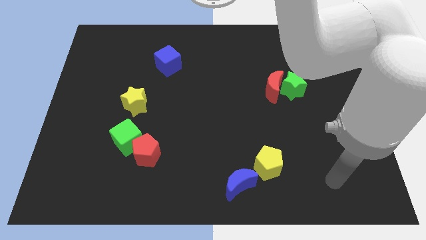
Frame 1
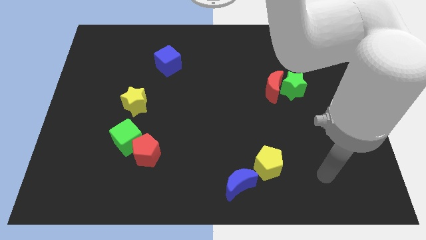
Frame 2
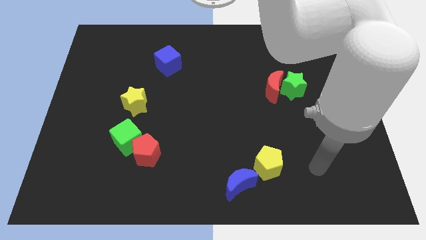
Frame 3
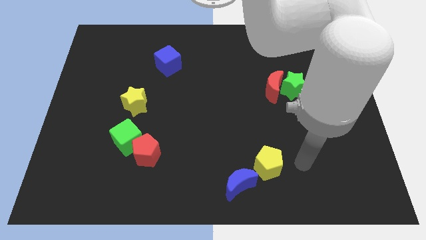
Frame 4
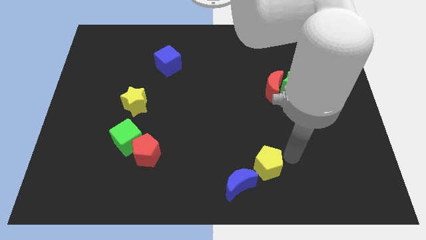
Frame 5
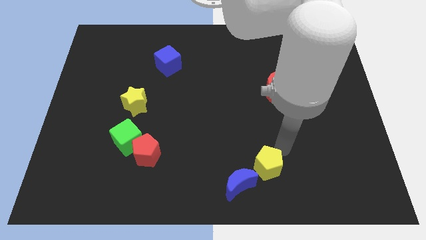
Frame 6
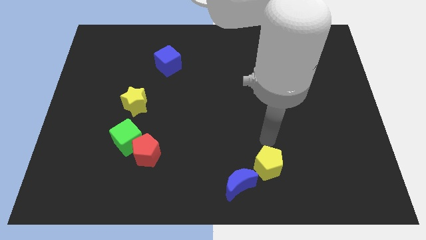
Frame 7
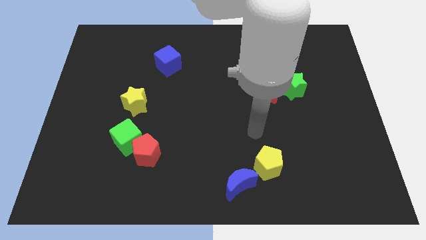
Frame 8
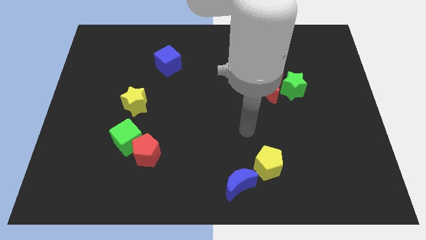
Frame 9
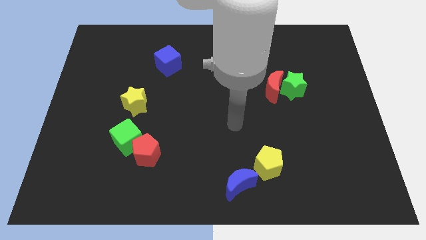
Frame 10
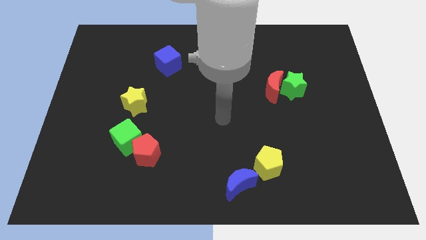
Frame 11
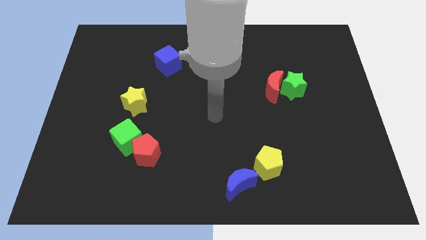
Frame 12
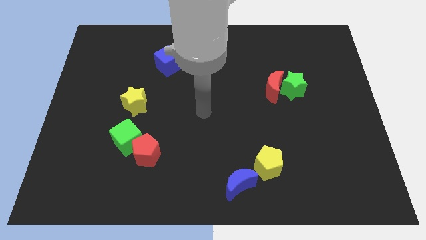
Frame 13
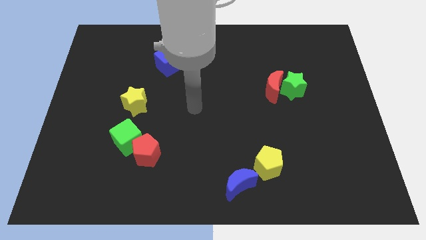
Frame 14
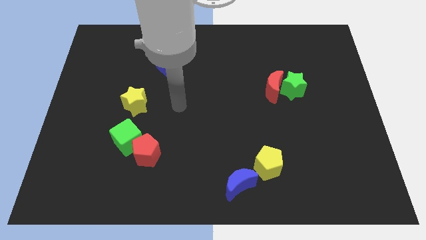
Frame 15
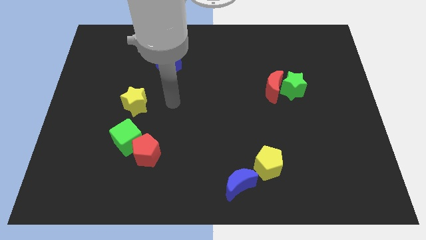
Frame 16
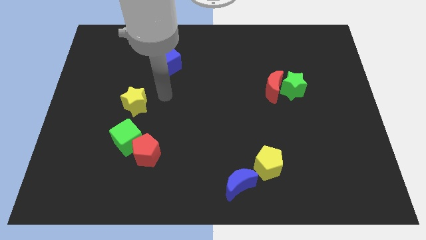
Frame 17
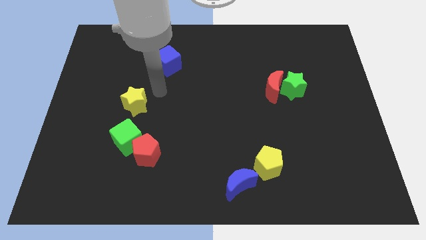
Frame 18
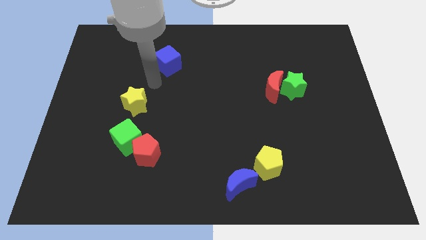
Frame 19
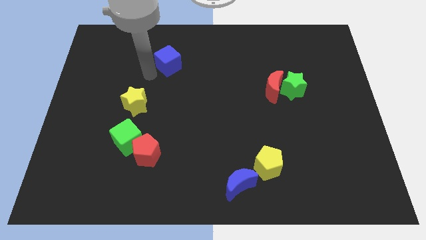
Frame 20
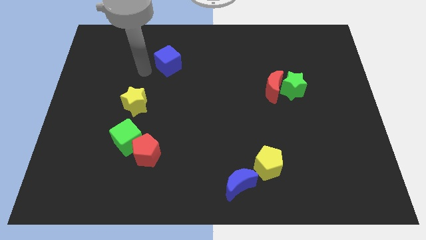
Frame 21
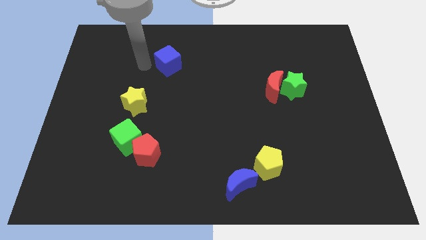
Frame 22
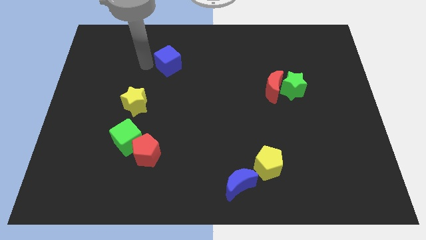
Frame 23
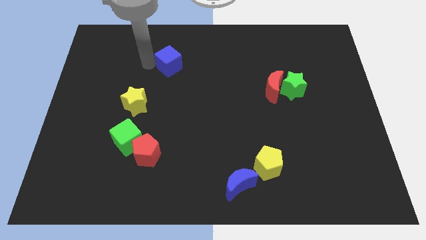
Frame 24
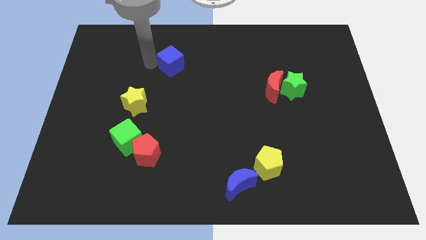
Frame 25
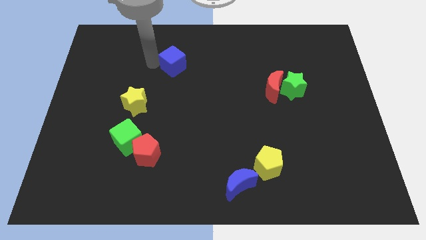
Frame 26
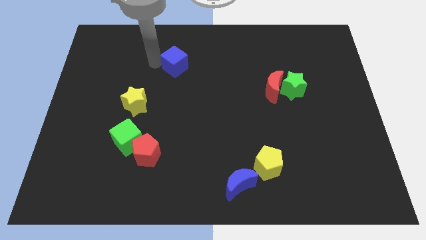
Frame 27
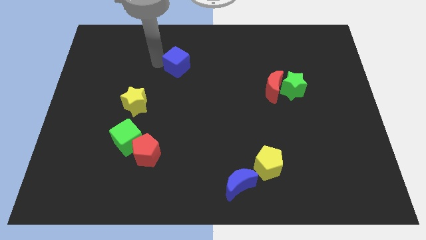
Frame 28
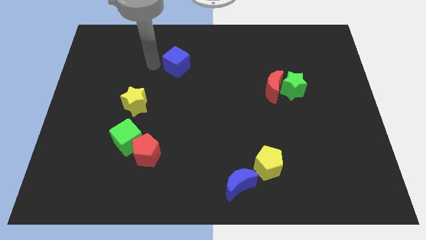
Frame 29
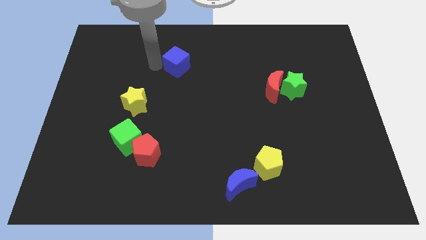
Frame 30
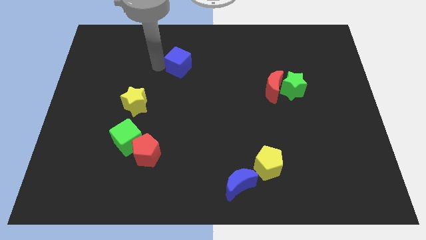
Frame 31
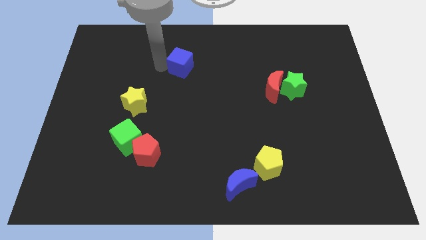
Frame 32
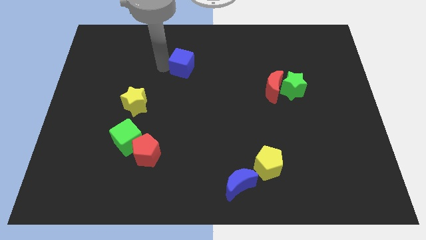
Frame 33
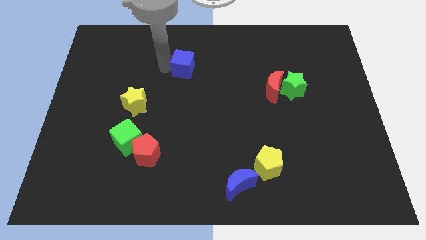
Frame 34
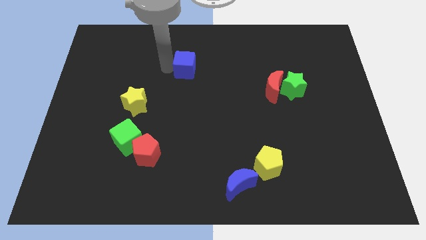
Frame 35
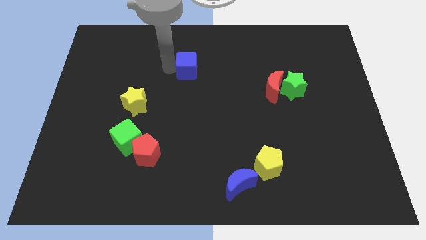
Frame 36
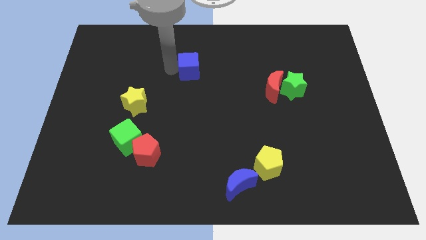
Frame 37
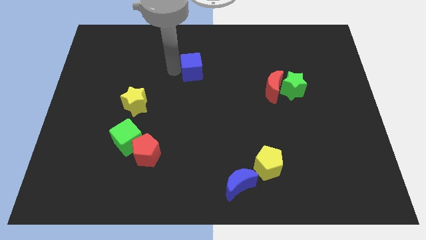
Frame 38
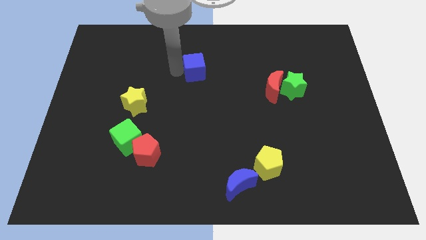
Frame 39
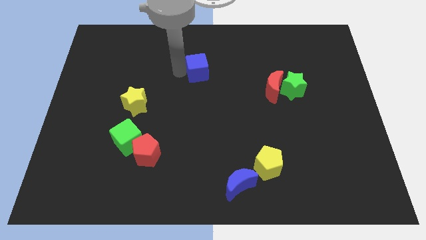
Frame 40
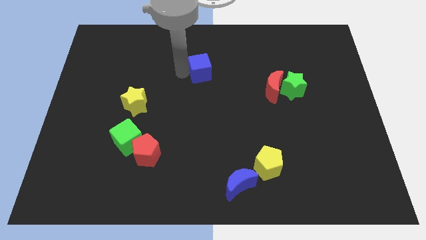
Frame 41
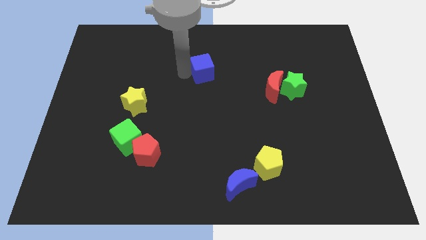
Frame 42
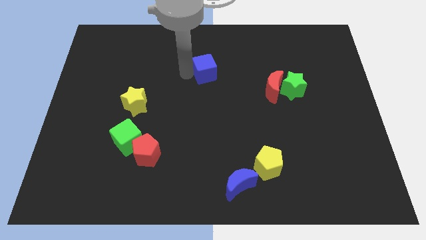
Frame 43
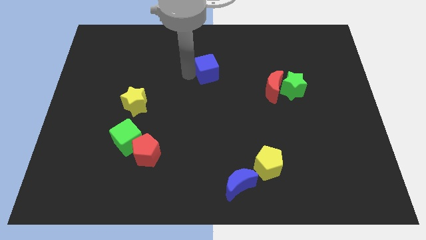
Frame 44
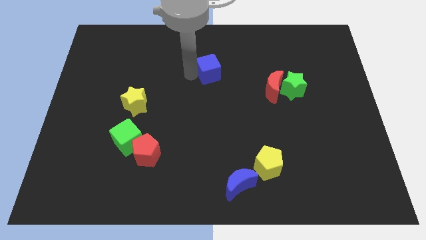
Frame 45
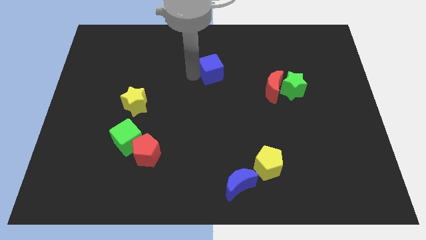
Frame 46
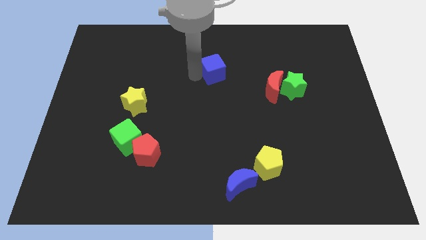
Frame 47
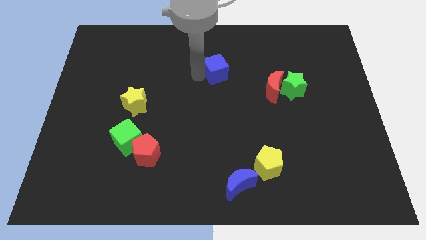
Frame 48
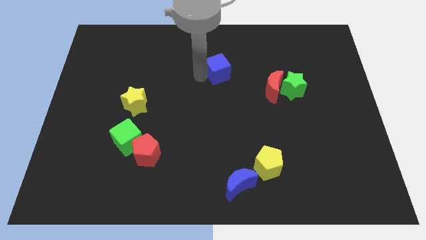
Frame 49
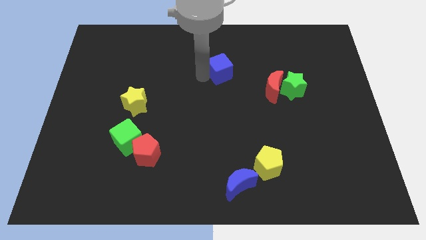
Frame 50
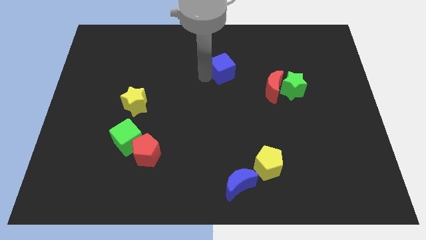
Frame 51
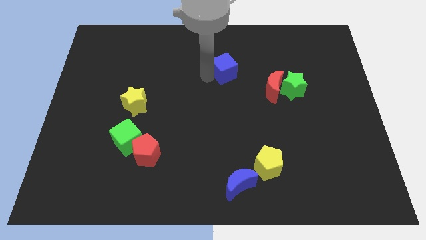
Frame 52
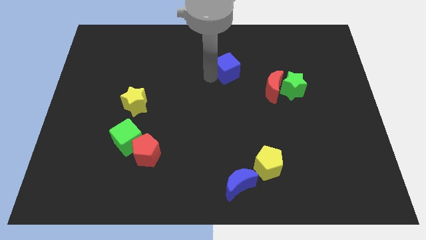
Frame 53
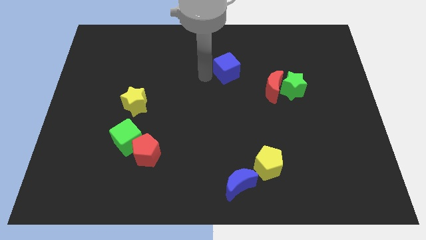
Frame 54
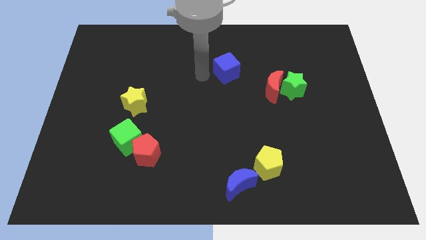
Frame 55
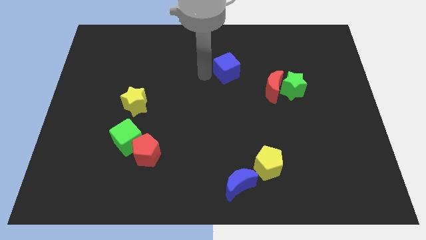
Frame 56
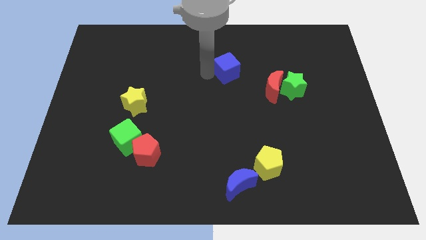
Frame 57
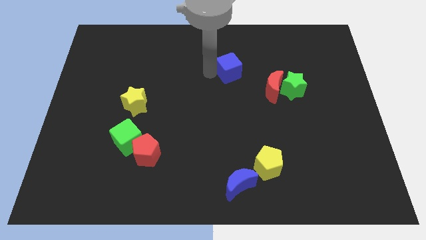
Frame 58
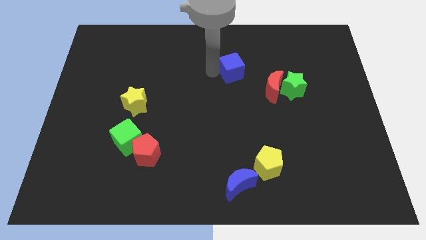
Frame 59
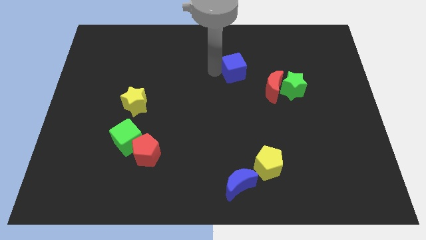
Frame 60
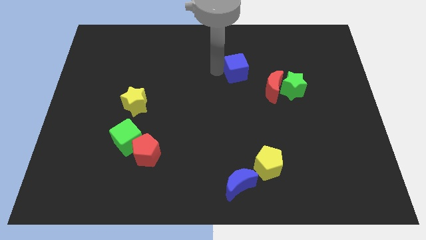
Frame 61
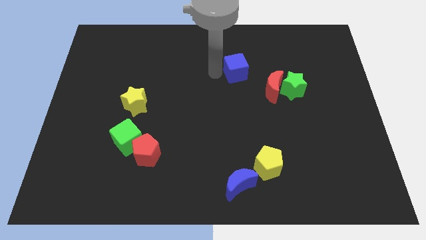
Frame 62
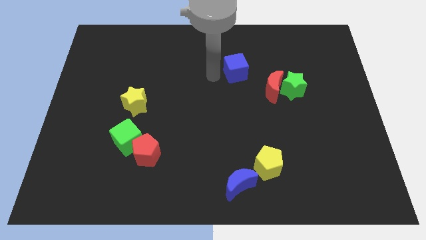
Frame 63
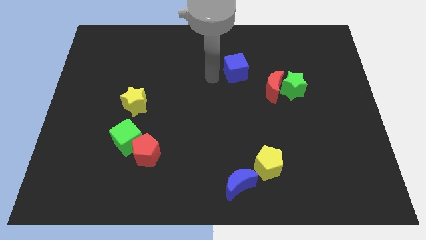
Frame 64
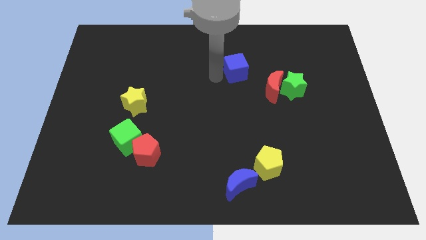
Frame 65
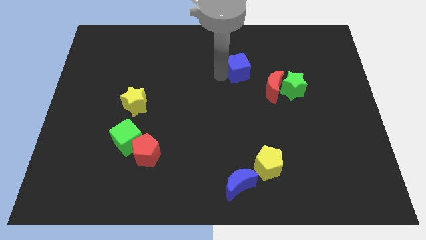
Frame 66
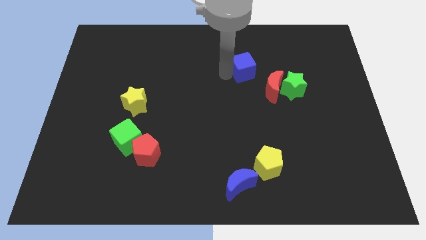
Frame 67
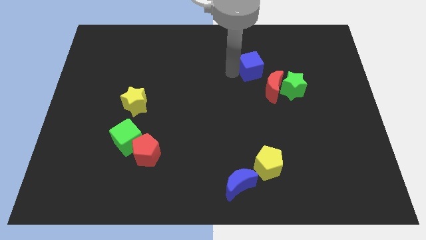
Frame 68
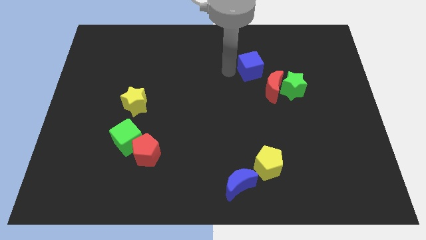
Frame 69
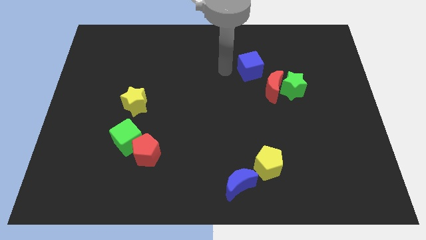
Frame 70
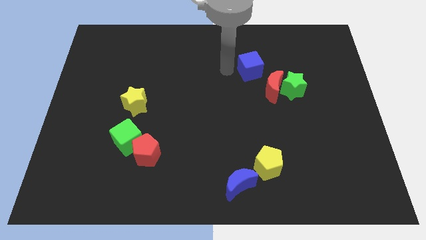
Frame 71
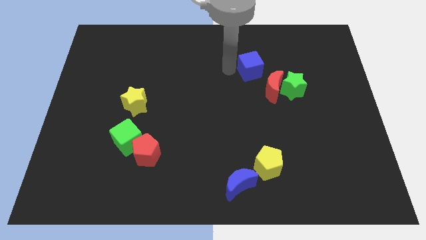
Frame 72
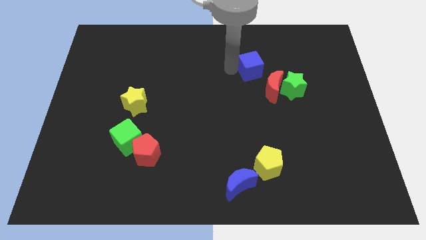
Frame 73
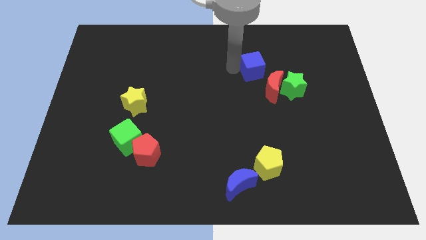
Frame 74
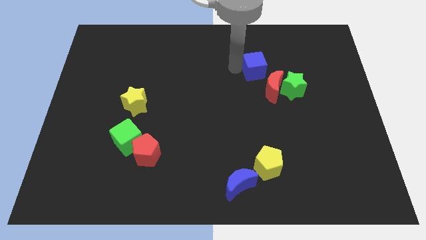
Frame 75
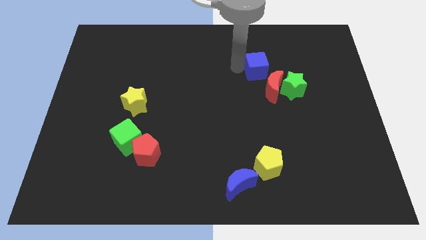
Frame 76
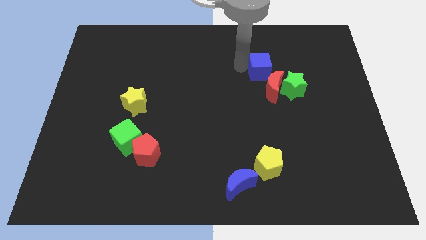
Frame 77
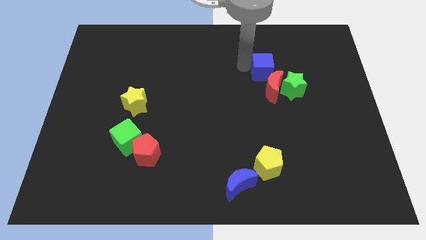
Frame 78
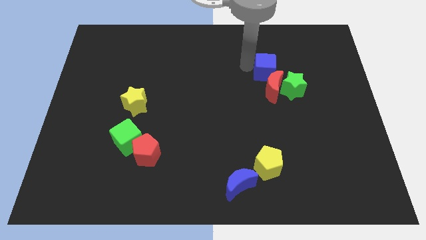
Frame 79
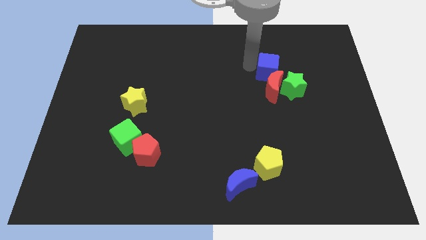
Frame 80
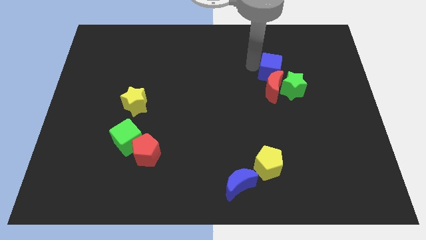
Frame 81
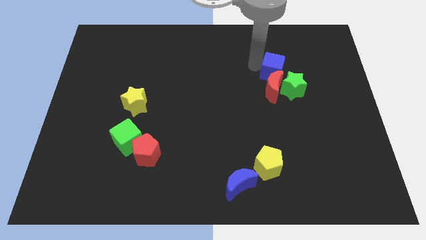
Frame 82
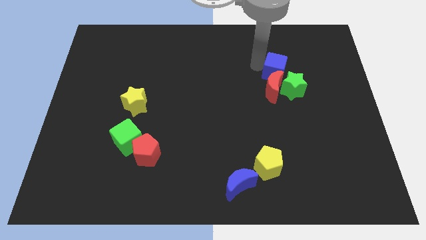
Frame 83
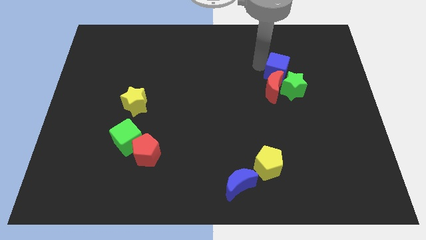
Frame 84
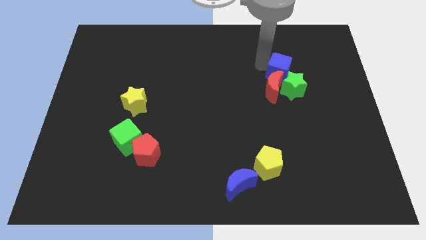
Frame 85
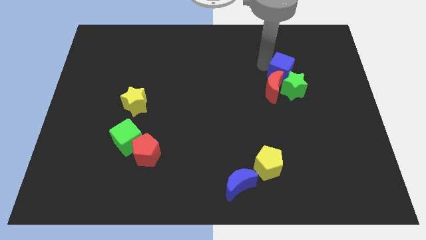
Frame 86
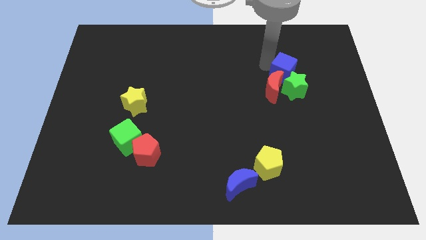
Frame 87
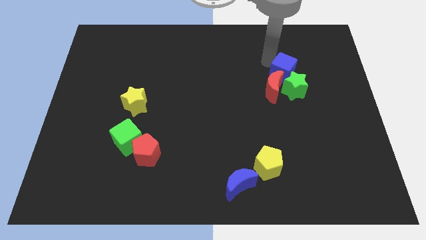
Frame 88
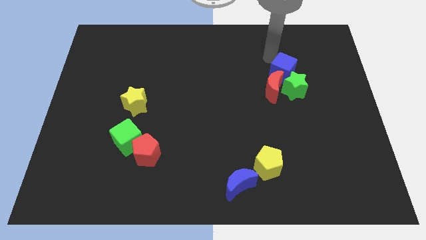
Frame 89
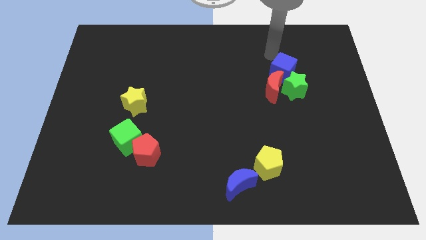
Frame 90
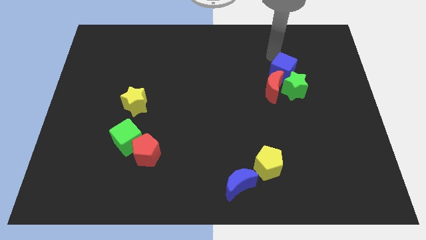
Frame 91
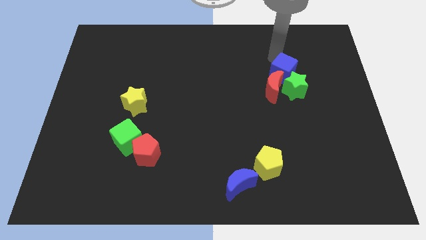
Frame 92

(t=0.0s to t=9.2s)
put the blue cube towards the green star
